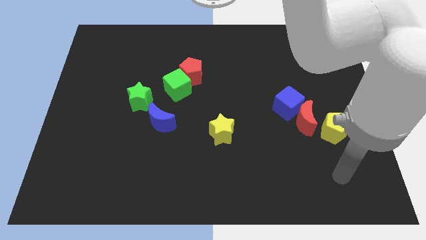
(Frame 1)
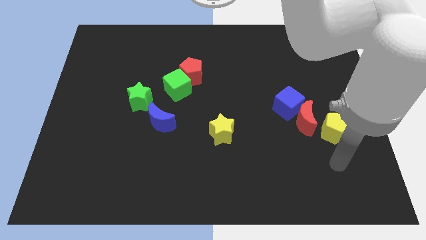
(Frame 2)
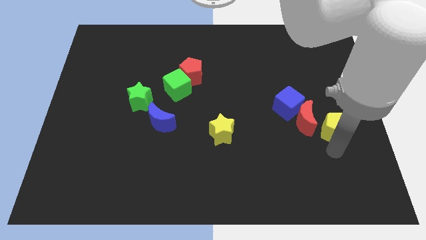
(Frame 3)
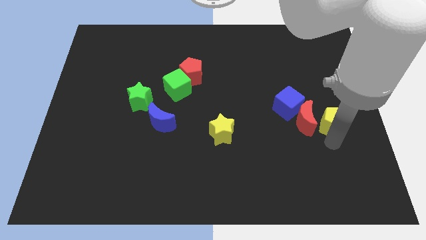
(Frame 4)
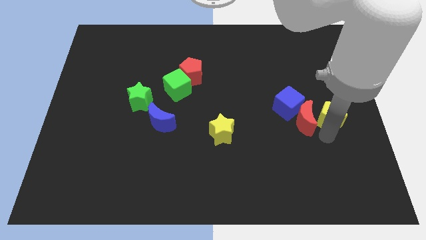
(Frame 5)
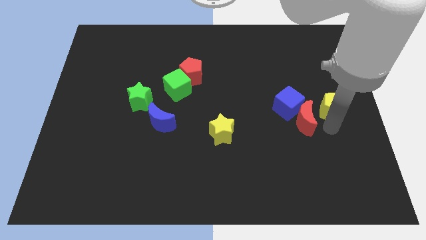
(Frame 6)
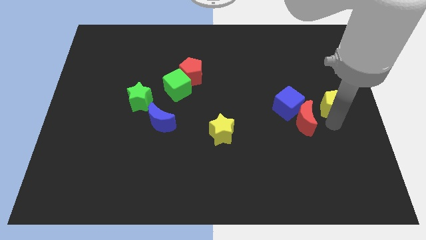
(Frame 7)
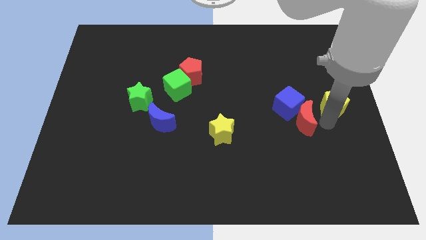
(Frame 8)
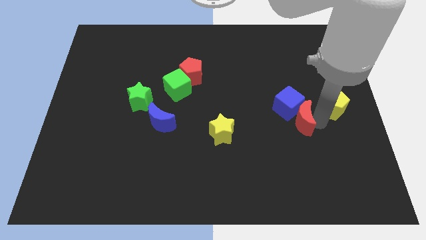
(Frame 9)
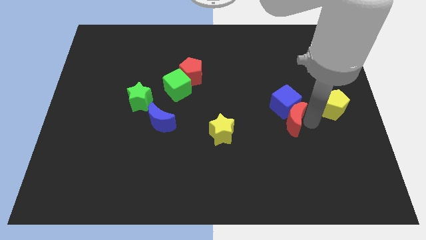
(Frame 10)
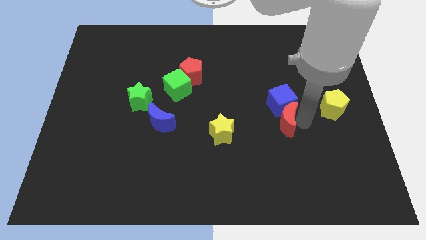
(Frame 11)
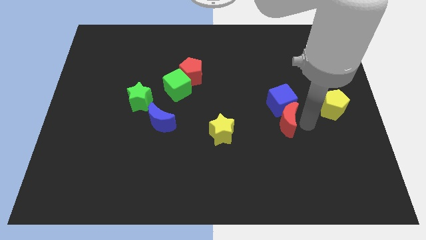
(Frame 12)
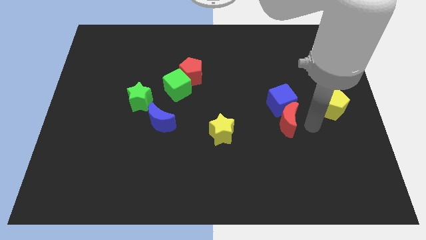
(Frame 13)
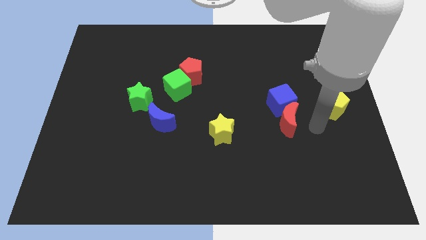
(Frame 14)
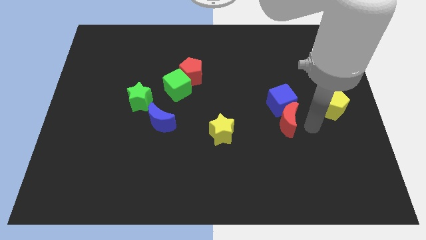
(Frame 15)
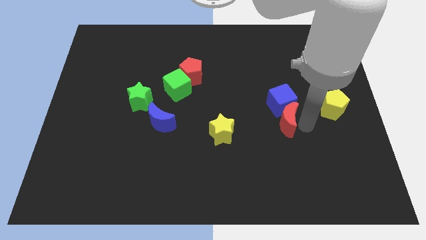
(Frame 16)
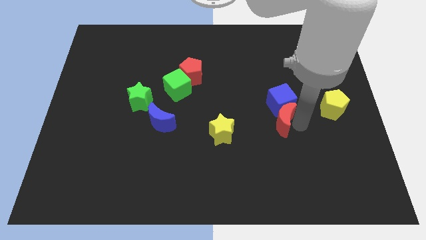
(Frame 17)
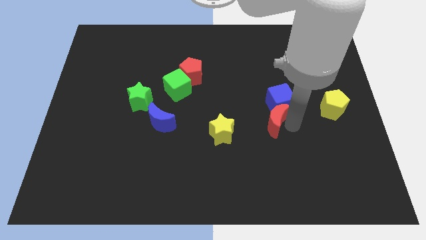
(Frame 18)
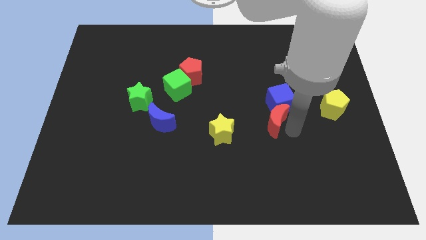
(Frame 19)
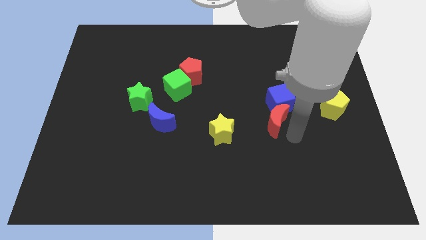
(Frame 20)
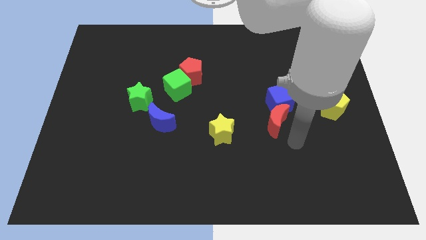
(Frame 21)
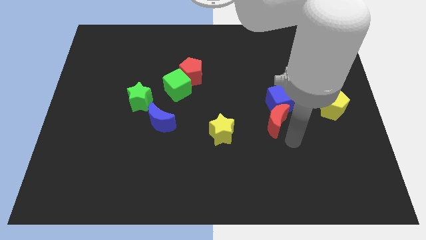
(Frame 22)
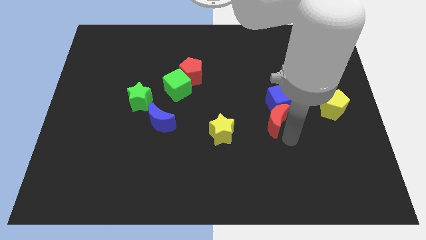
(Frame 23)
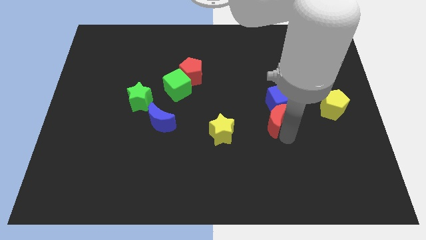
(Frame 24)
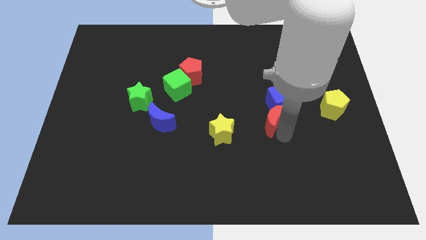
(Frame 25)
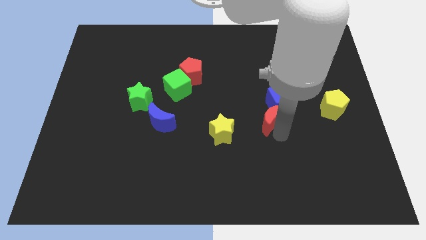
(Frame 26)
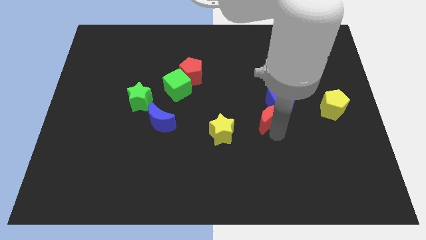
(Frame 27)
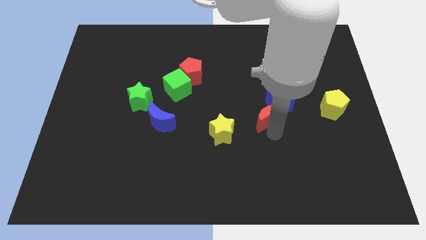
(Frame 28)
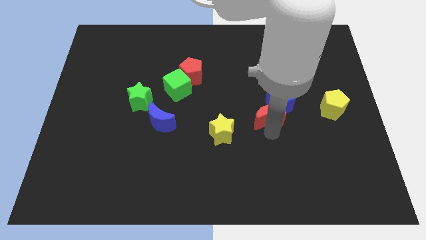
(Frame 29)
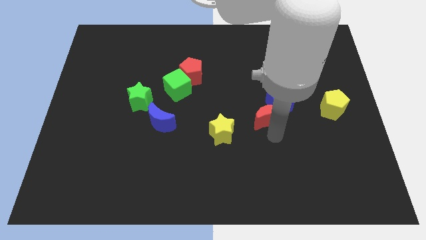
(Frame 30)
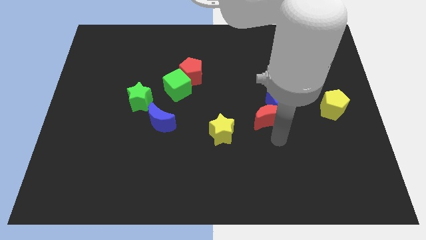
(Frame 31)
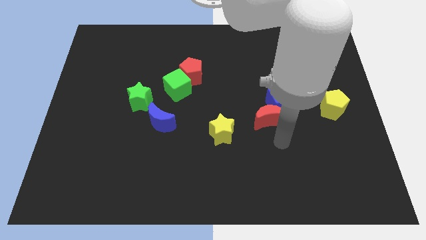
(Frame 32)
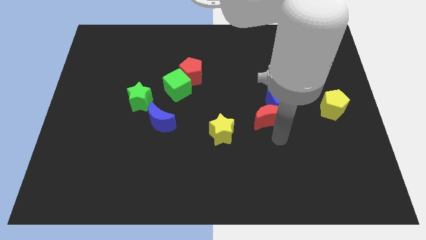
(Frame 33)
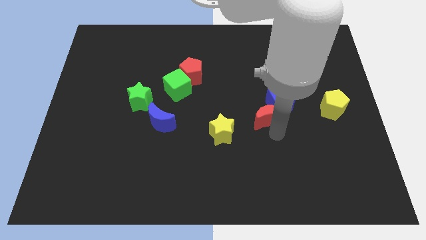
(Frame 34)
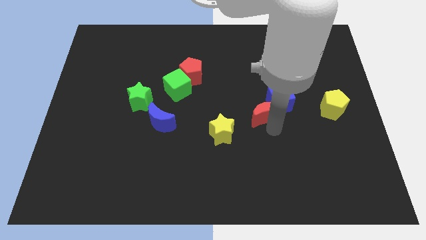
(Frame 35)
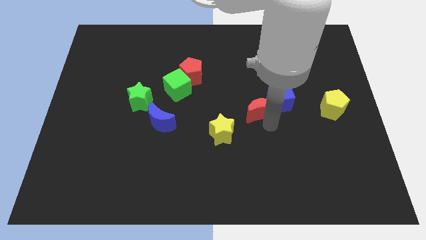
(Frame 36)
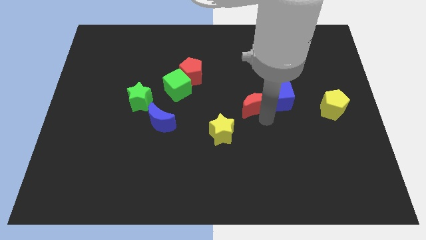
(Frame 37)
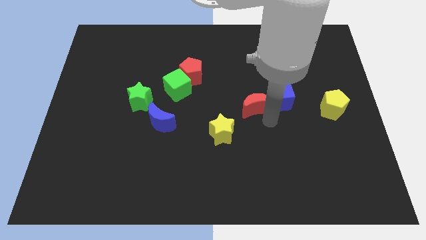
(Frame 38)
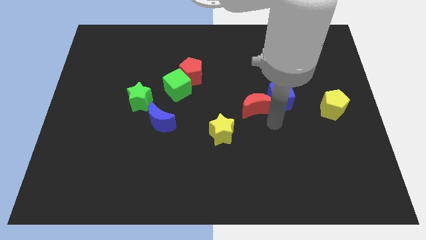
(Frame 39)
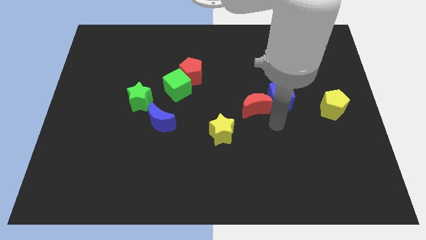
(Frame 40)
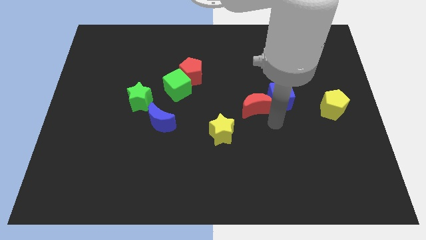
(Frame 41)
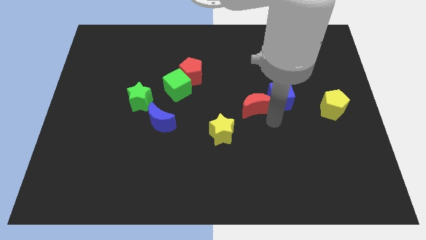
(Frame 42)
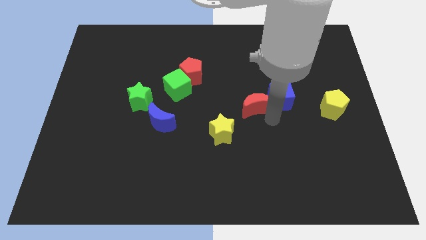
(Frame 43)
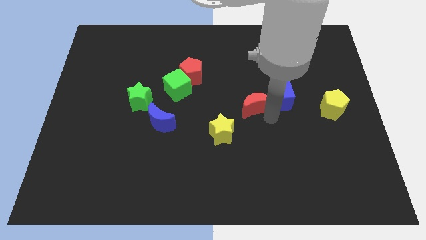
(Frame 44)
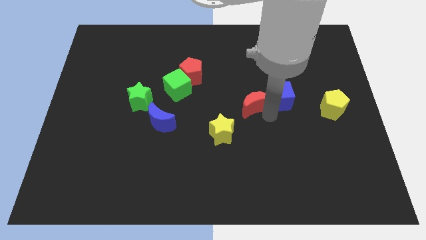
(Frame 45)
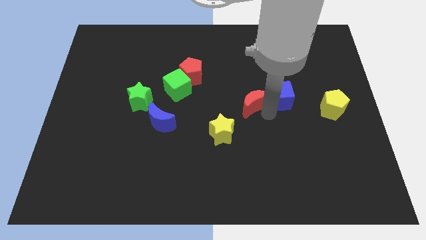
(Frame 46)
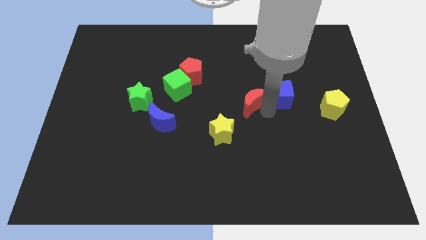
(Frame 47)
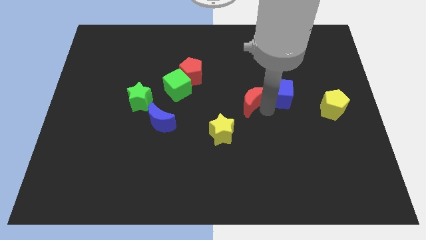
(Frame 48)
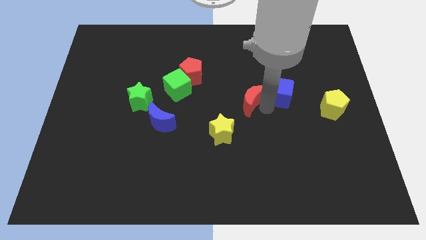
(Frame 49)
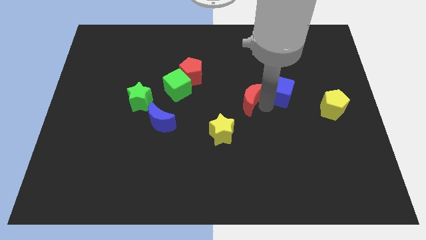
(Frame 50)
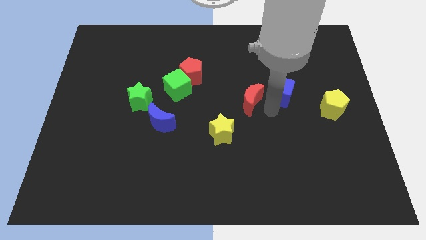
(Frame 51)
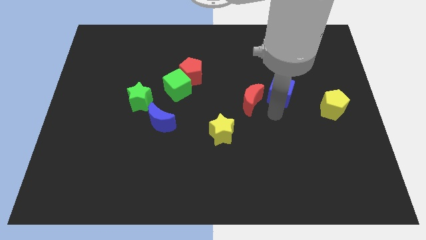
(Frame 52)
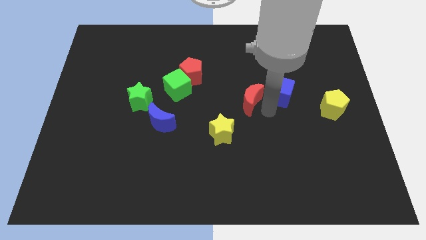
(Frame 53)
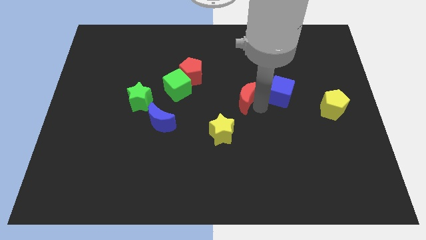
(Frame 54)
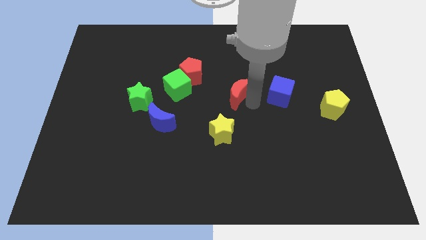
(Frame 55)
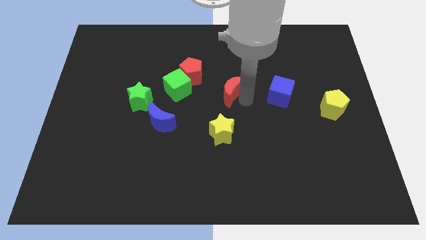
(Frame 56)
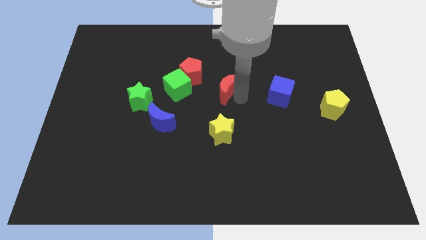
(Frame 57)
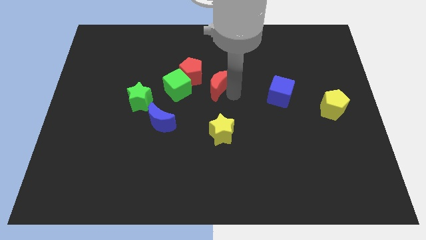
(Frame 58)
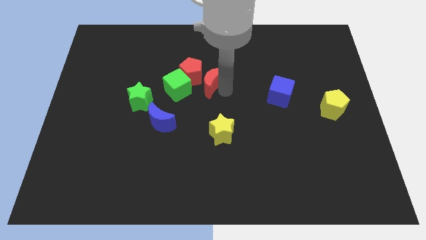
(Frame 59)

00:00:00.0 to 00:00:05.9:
slide the red moon towards the red pentagon
